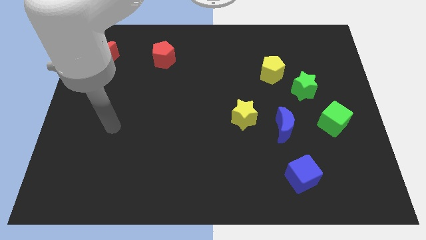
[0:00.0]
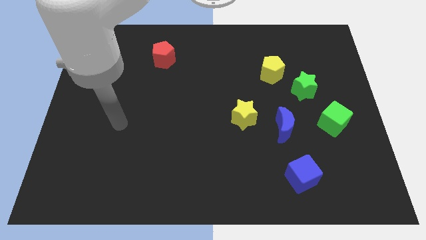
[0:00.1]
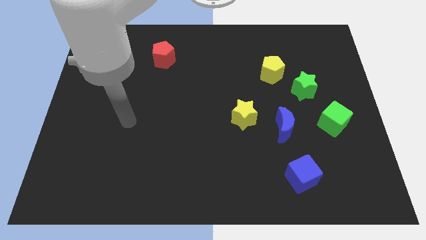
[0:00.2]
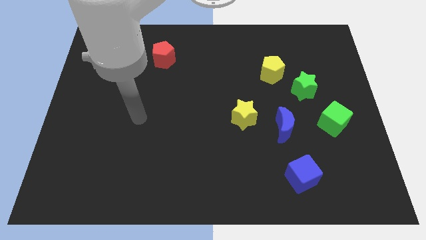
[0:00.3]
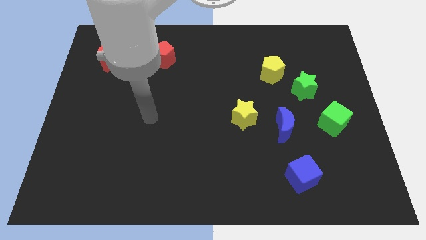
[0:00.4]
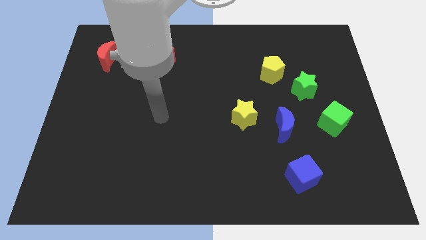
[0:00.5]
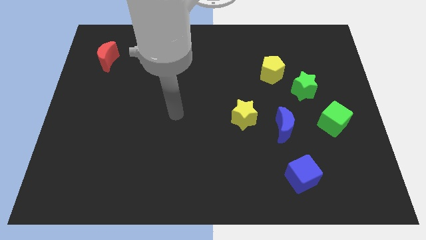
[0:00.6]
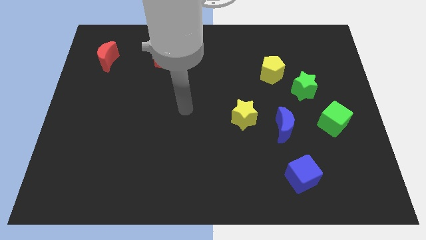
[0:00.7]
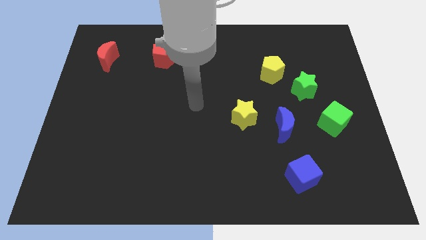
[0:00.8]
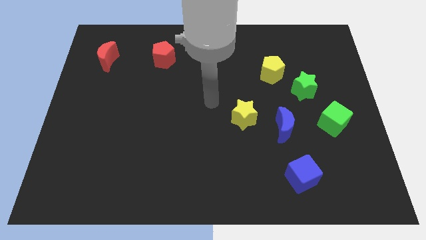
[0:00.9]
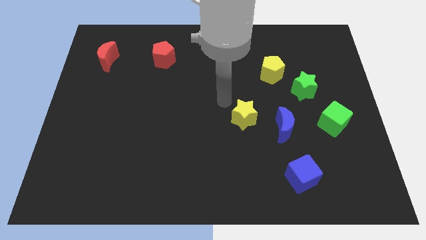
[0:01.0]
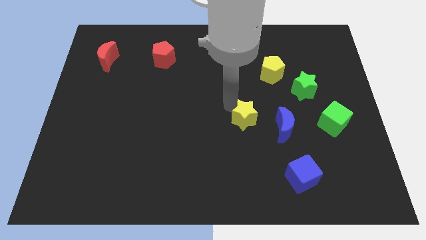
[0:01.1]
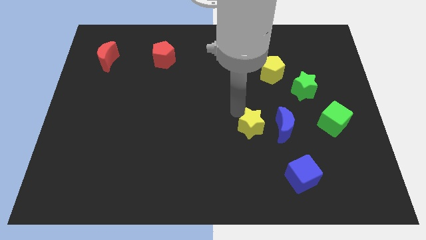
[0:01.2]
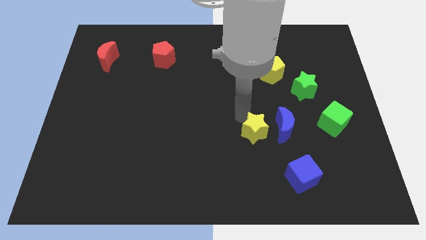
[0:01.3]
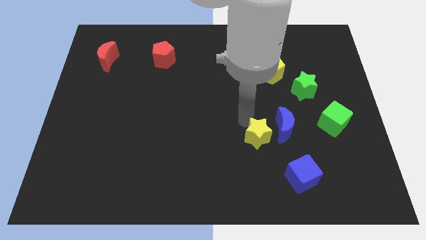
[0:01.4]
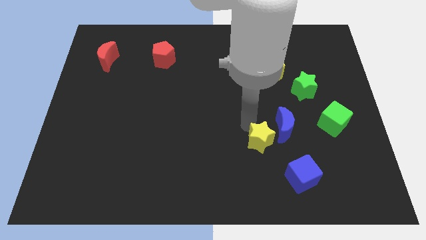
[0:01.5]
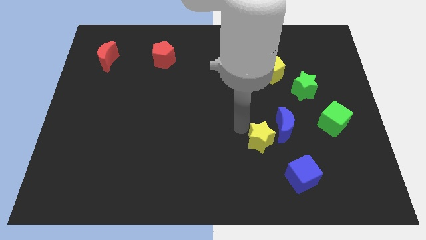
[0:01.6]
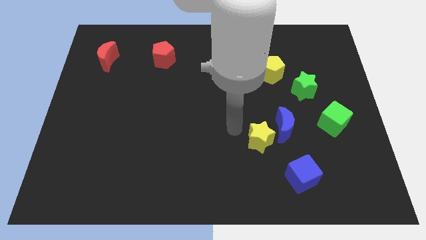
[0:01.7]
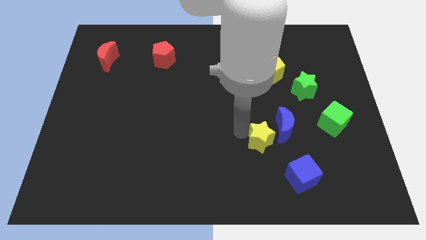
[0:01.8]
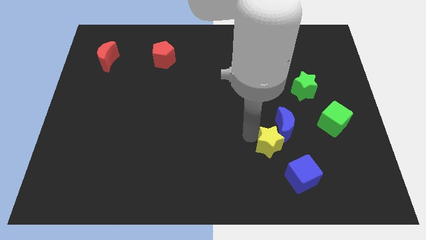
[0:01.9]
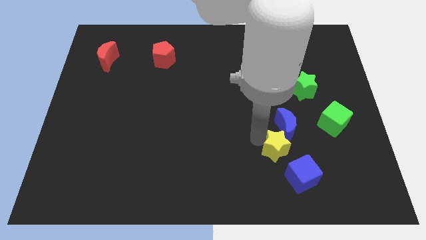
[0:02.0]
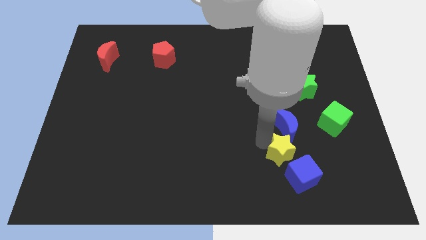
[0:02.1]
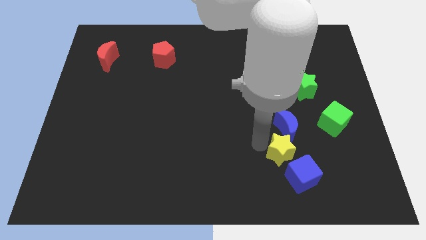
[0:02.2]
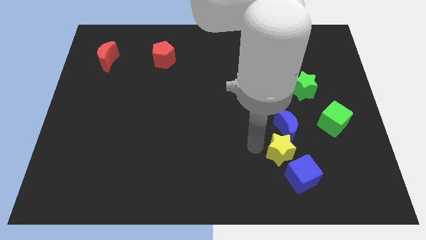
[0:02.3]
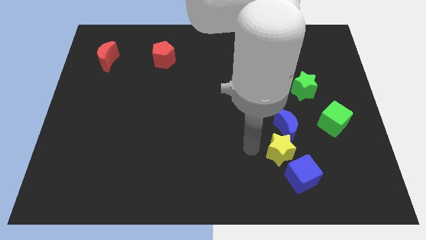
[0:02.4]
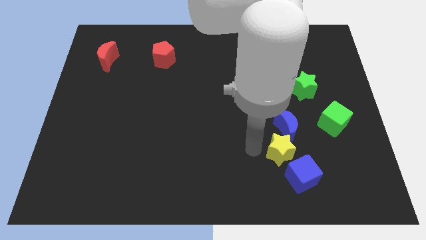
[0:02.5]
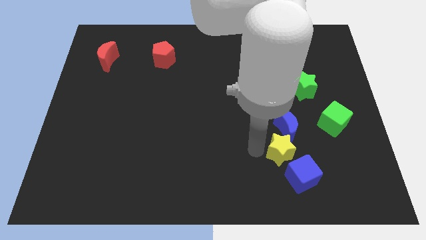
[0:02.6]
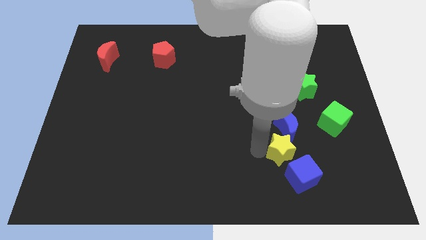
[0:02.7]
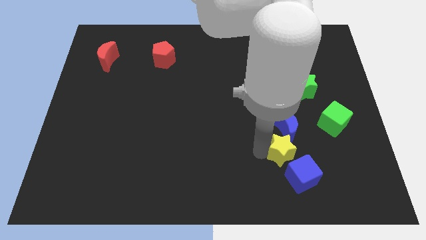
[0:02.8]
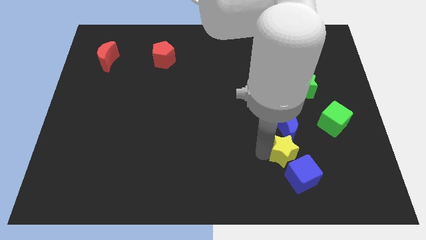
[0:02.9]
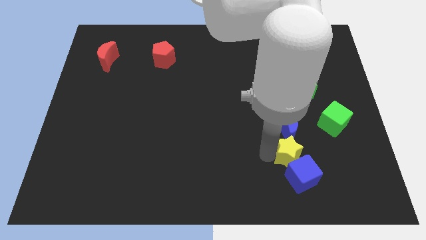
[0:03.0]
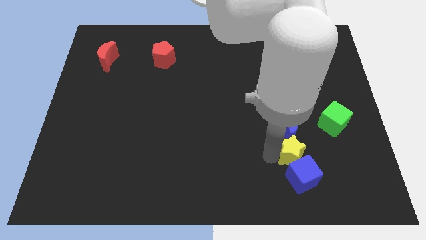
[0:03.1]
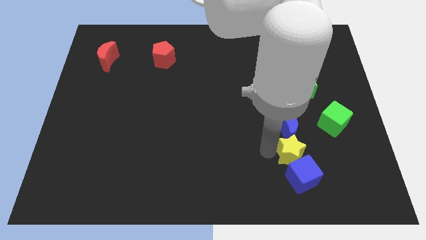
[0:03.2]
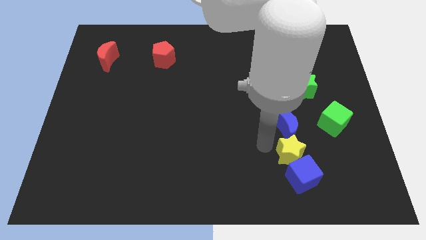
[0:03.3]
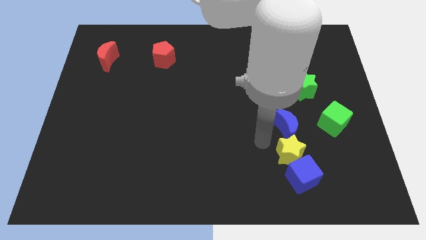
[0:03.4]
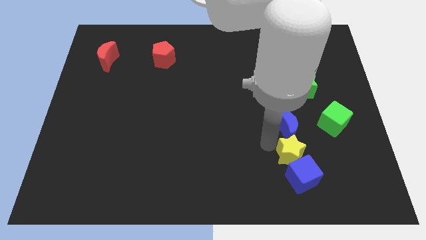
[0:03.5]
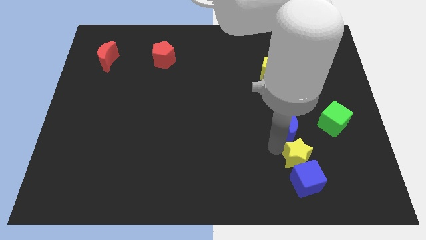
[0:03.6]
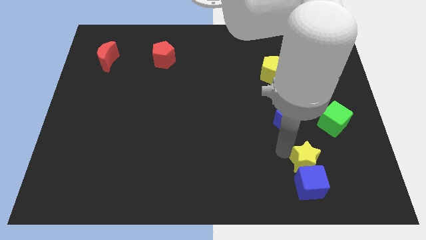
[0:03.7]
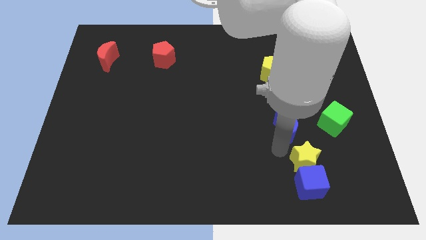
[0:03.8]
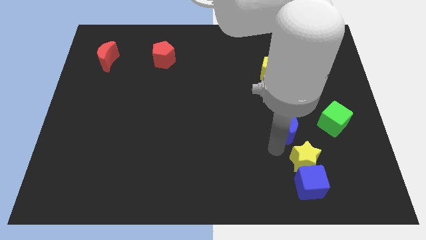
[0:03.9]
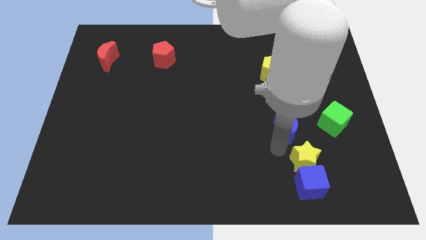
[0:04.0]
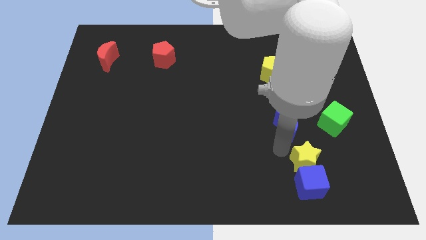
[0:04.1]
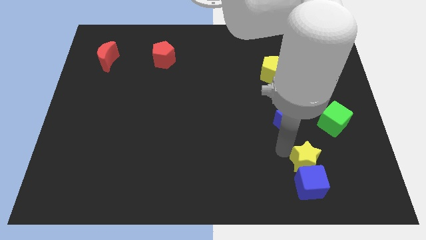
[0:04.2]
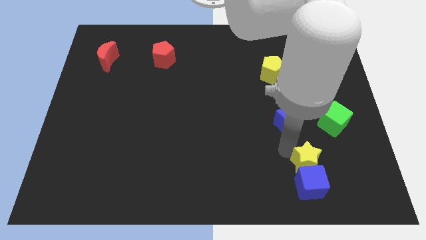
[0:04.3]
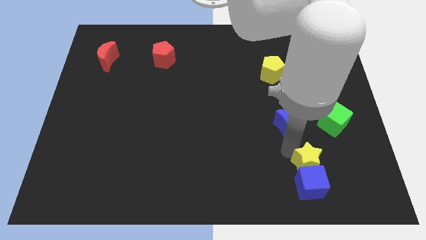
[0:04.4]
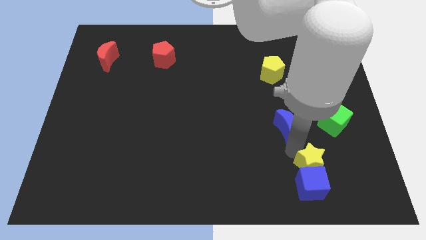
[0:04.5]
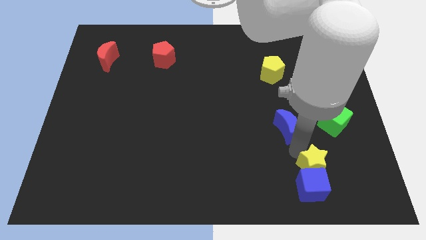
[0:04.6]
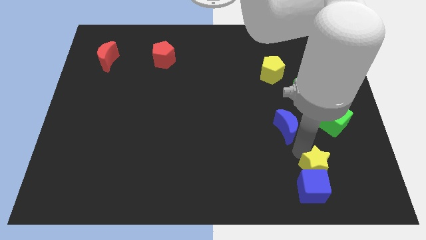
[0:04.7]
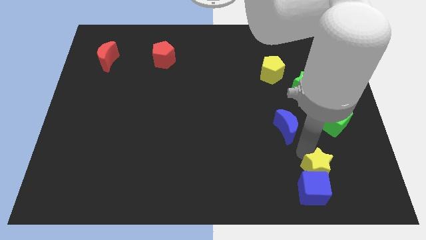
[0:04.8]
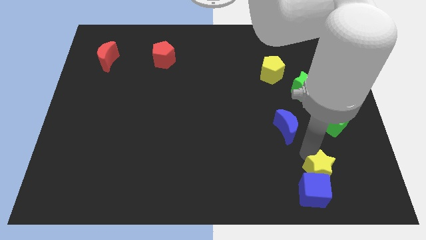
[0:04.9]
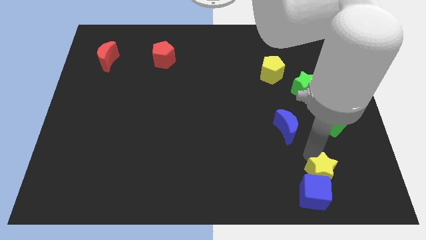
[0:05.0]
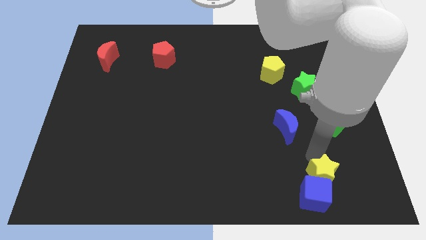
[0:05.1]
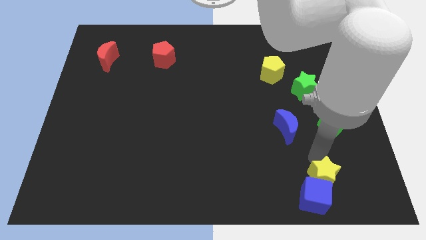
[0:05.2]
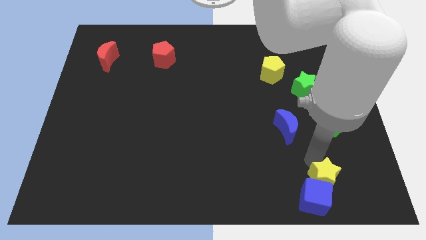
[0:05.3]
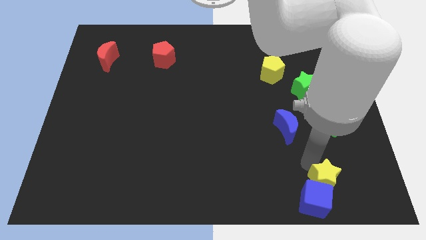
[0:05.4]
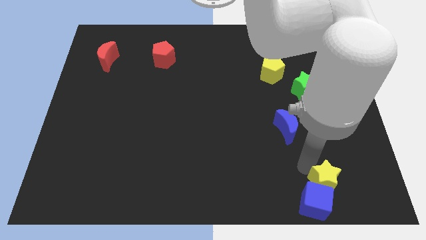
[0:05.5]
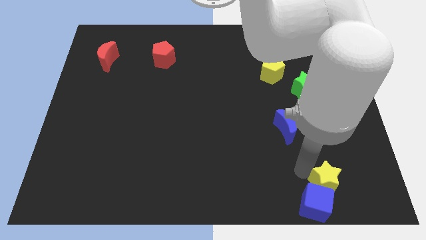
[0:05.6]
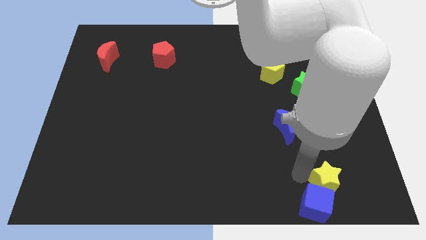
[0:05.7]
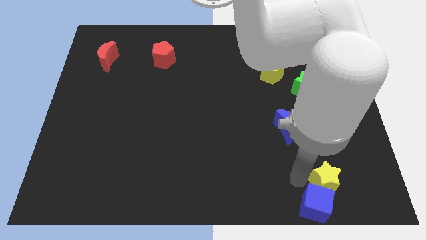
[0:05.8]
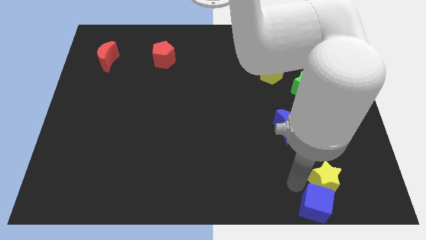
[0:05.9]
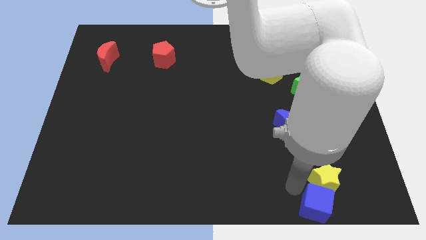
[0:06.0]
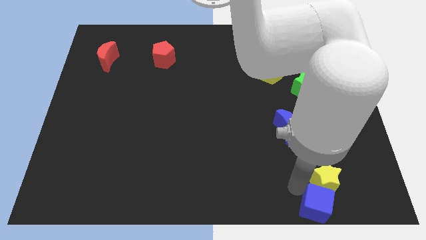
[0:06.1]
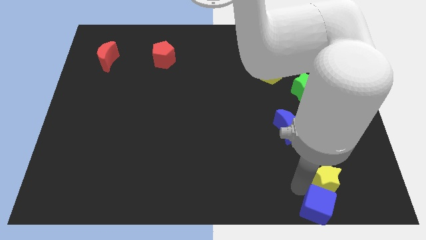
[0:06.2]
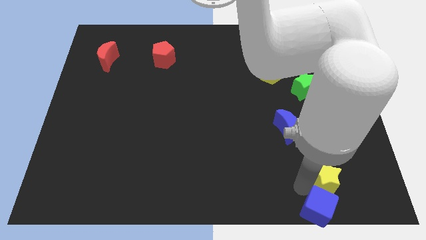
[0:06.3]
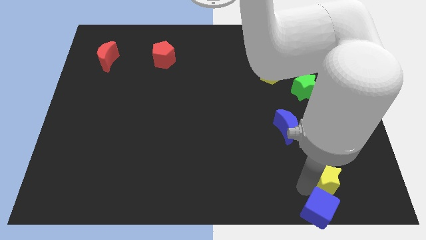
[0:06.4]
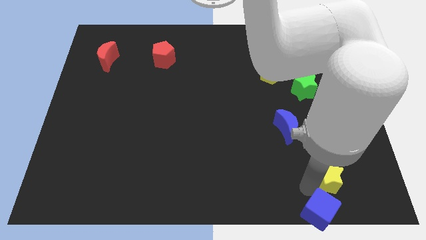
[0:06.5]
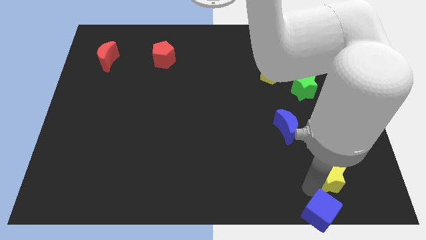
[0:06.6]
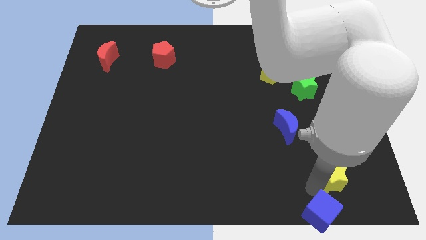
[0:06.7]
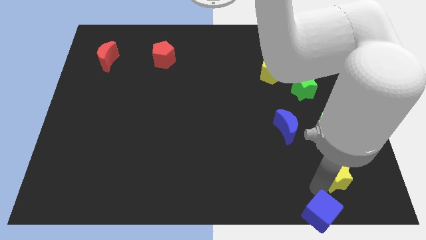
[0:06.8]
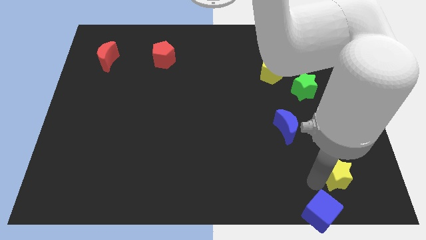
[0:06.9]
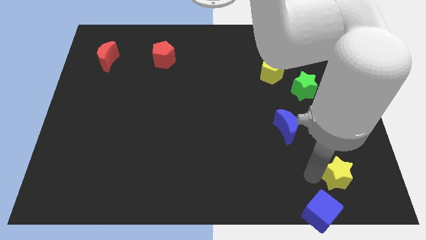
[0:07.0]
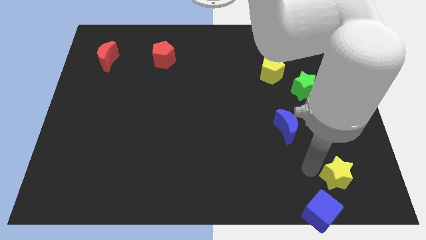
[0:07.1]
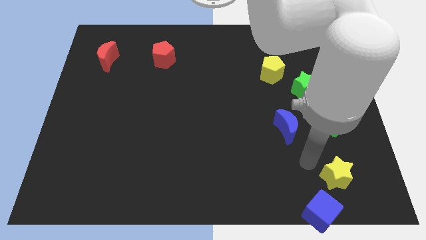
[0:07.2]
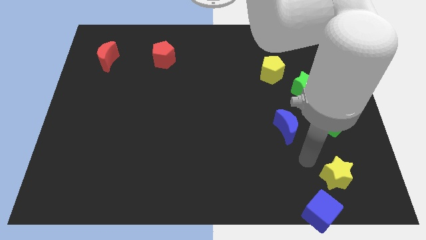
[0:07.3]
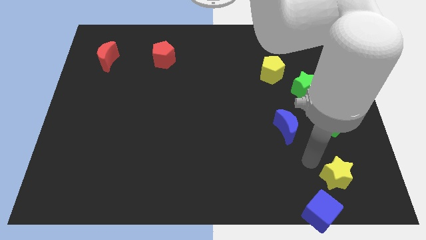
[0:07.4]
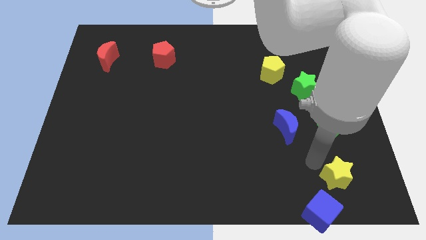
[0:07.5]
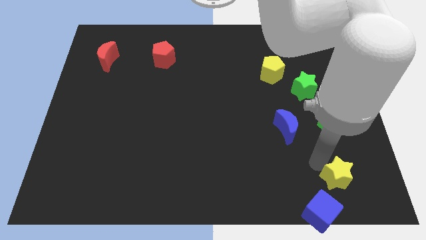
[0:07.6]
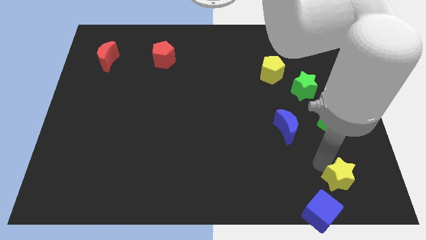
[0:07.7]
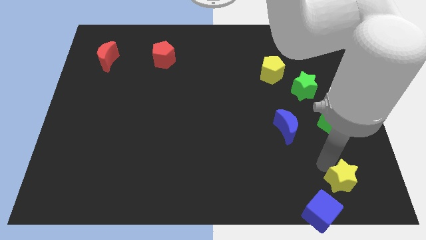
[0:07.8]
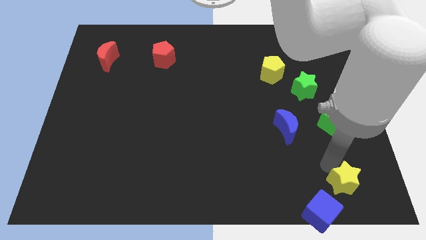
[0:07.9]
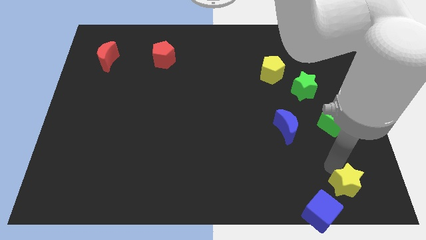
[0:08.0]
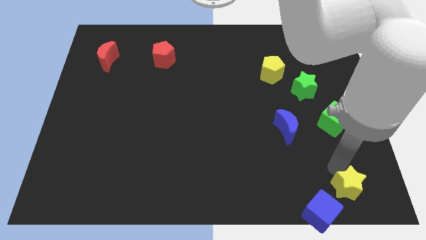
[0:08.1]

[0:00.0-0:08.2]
push the yellow star to the lower right corner
